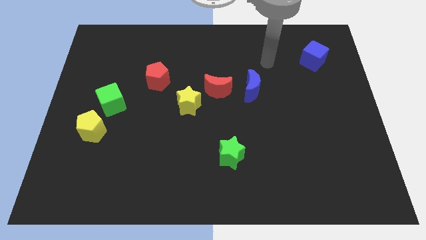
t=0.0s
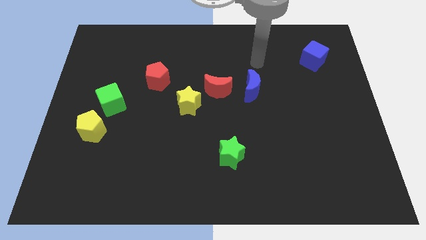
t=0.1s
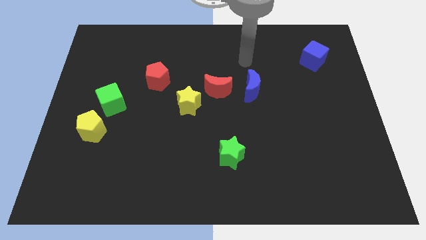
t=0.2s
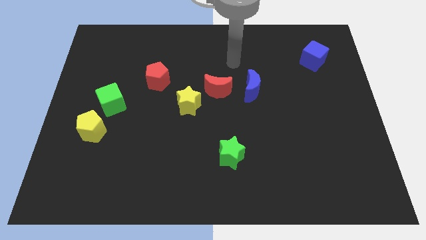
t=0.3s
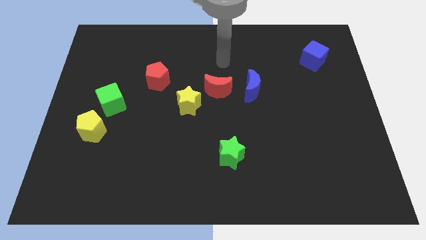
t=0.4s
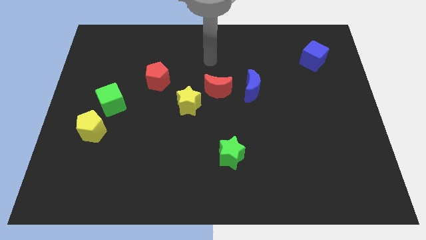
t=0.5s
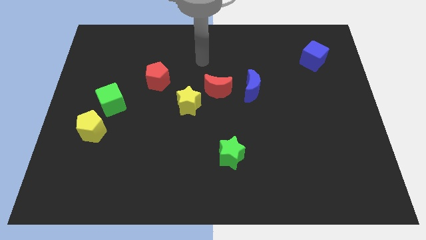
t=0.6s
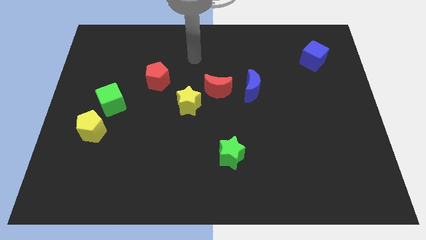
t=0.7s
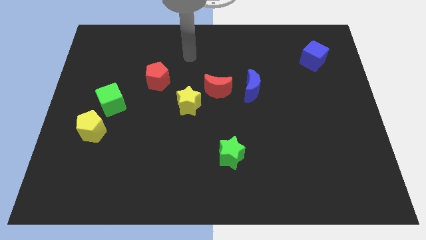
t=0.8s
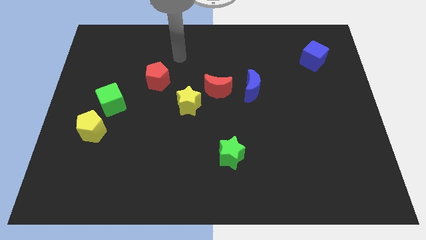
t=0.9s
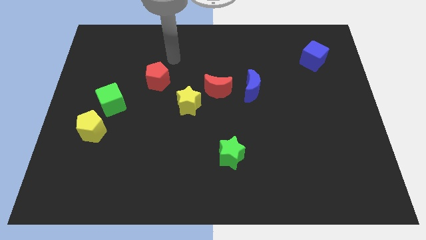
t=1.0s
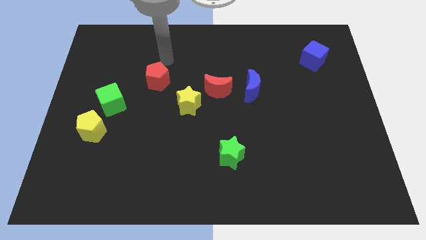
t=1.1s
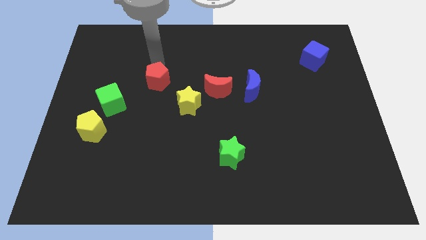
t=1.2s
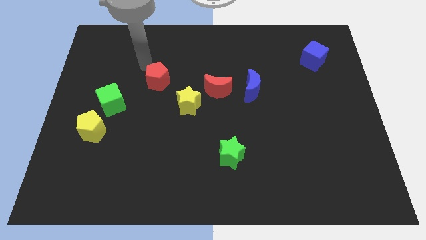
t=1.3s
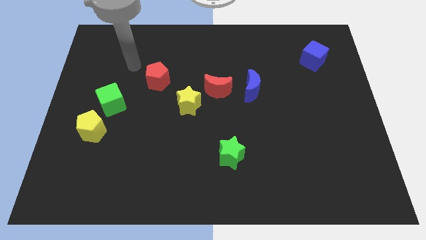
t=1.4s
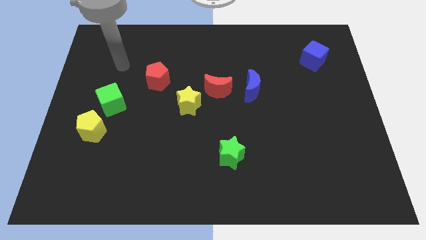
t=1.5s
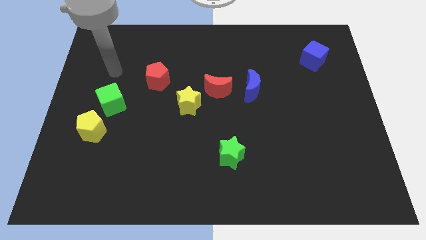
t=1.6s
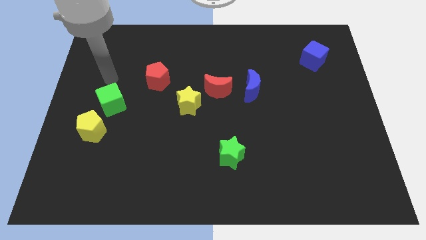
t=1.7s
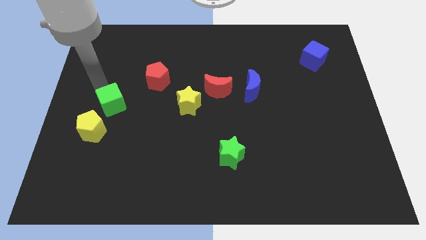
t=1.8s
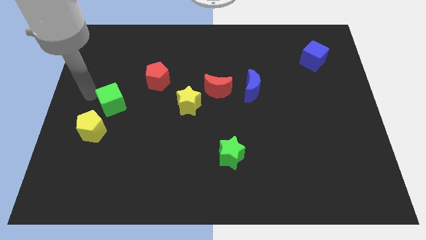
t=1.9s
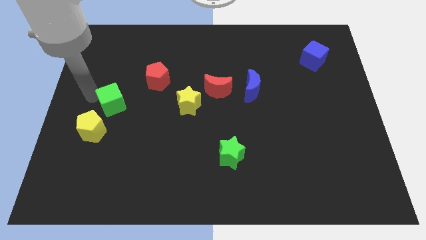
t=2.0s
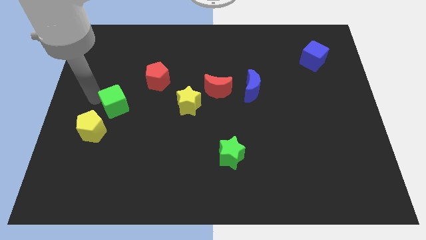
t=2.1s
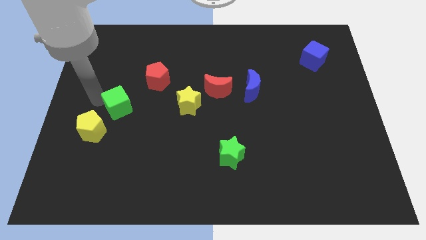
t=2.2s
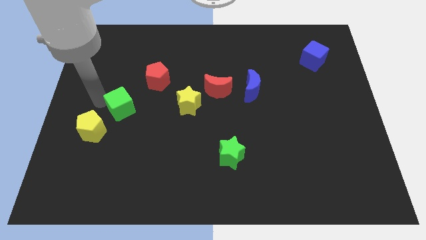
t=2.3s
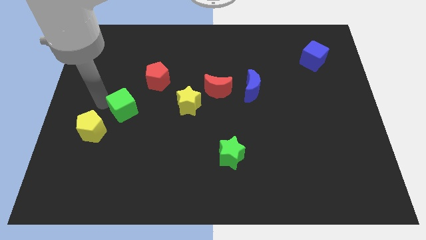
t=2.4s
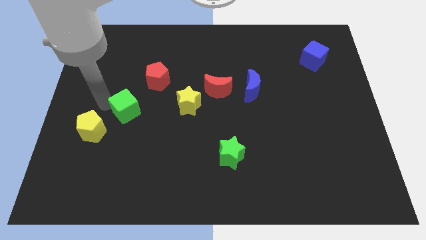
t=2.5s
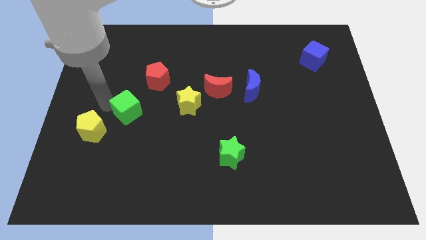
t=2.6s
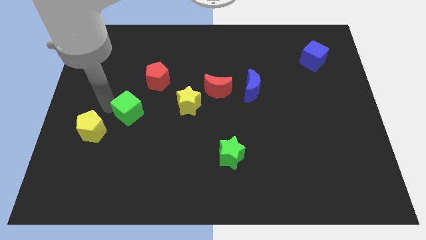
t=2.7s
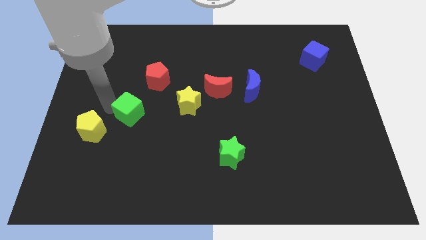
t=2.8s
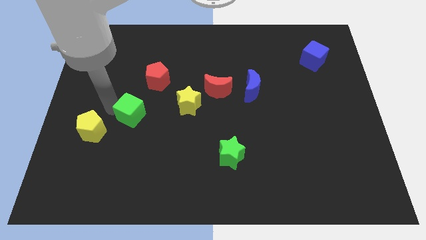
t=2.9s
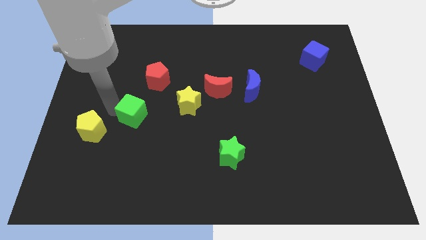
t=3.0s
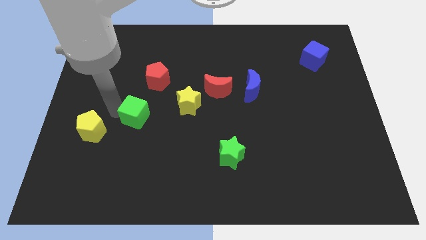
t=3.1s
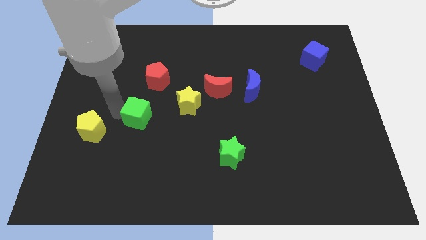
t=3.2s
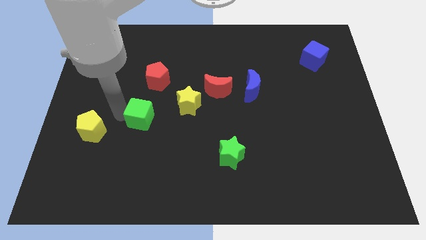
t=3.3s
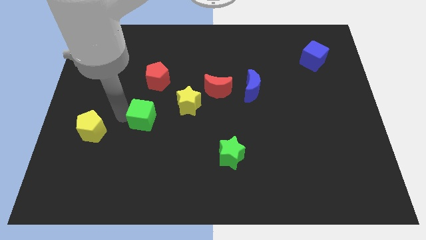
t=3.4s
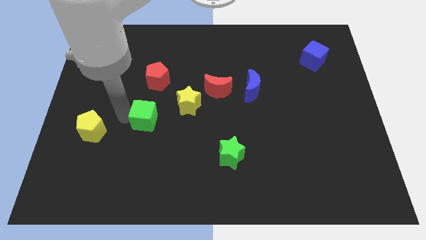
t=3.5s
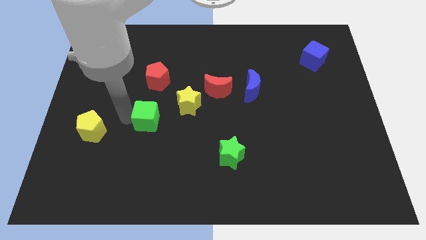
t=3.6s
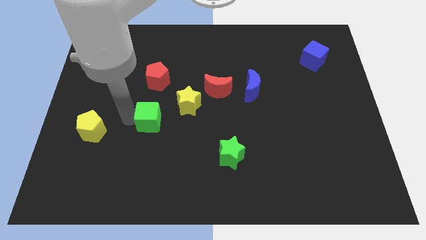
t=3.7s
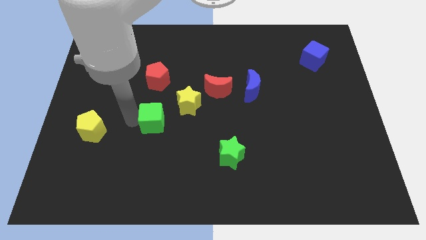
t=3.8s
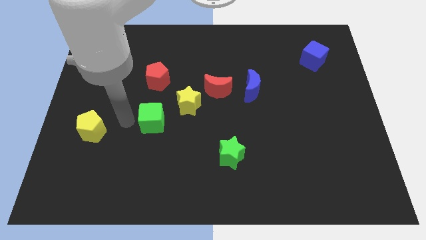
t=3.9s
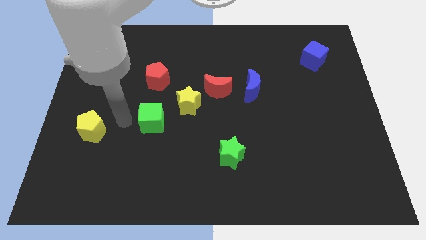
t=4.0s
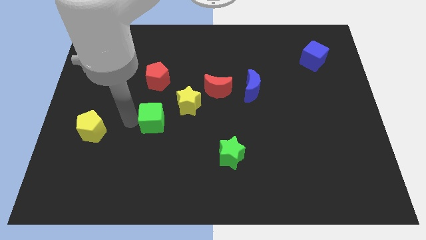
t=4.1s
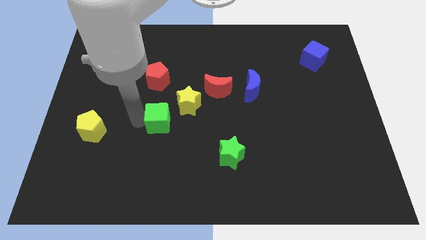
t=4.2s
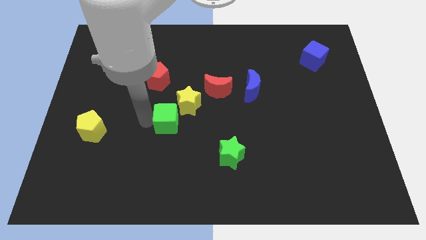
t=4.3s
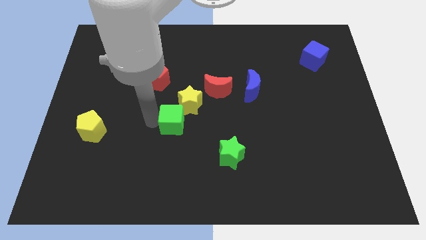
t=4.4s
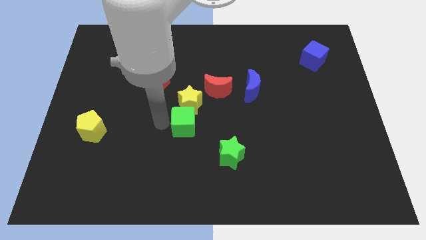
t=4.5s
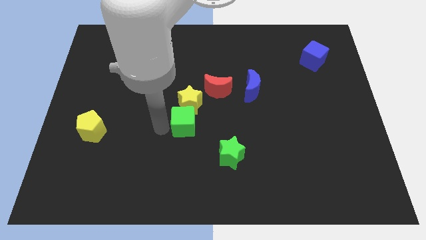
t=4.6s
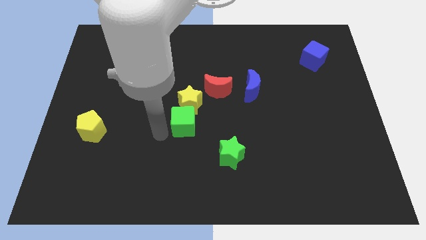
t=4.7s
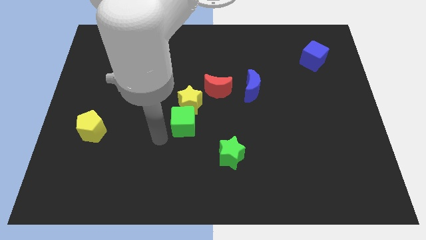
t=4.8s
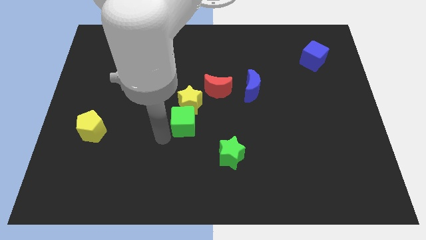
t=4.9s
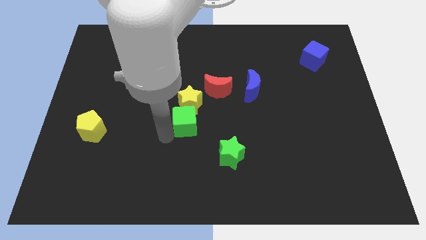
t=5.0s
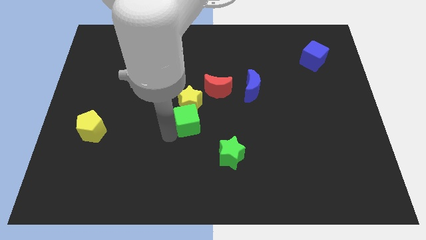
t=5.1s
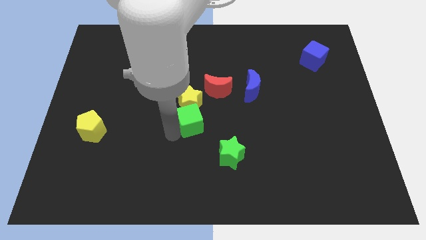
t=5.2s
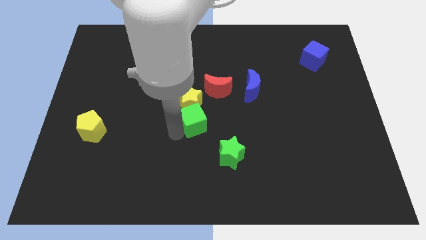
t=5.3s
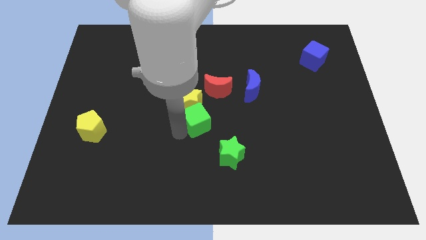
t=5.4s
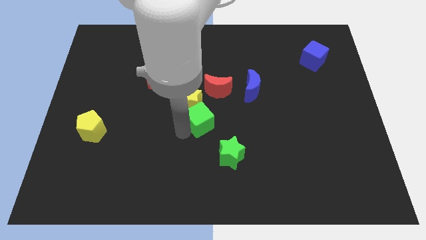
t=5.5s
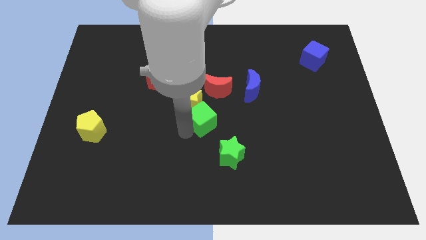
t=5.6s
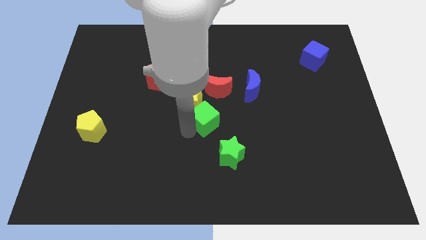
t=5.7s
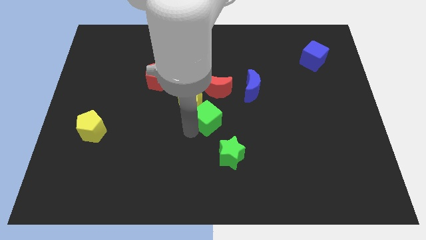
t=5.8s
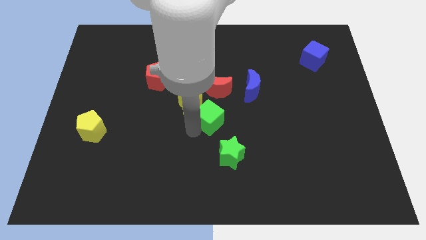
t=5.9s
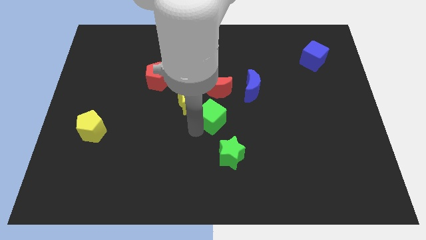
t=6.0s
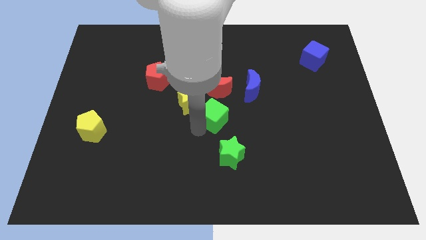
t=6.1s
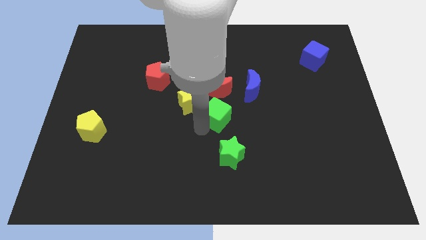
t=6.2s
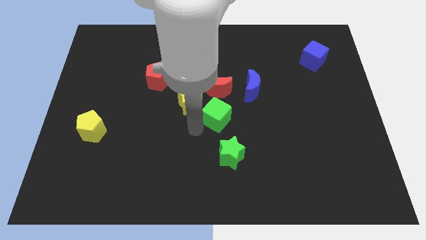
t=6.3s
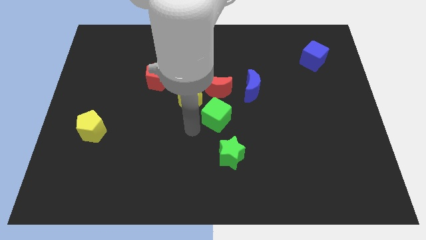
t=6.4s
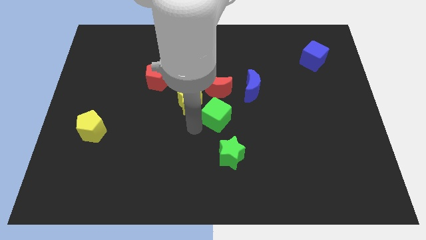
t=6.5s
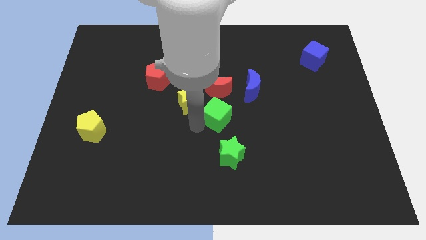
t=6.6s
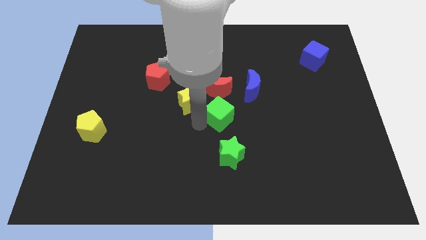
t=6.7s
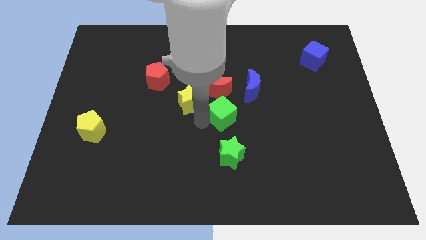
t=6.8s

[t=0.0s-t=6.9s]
push the green cube to the bottom right of the red moon

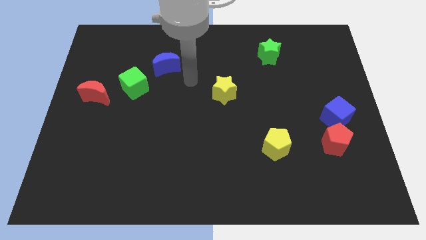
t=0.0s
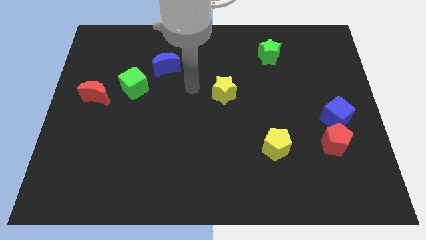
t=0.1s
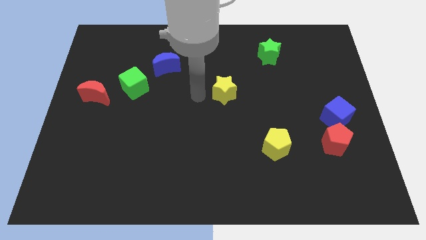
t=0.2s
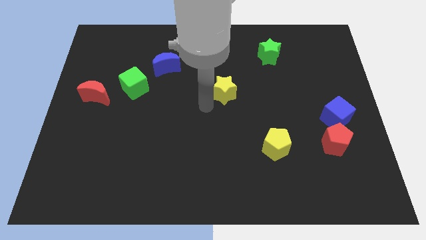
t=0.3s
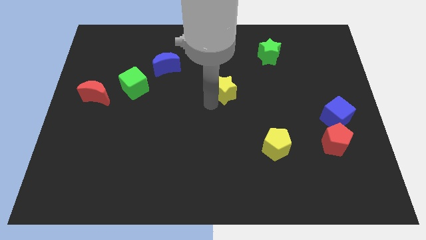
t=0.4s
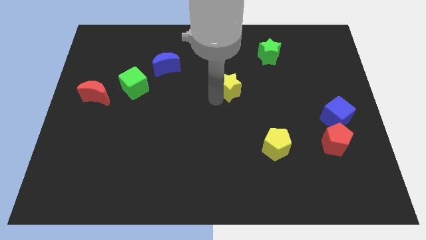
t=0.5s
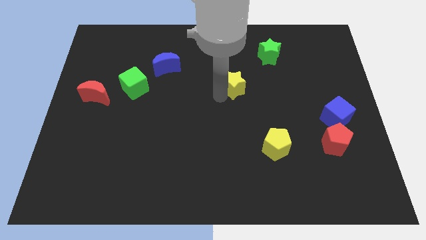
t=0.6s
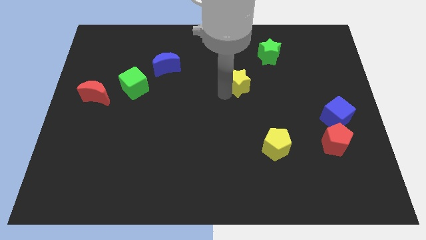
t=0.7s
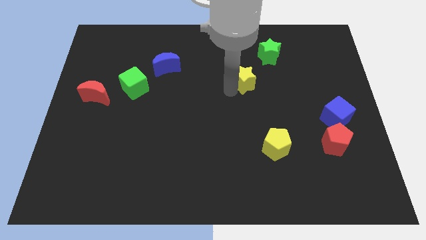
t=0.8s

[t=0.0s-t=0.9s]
slide the yellow star to the bottom left of the green star
